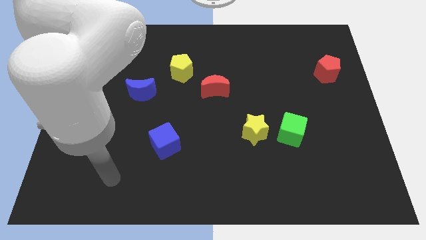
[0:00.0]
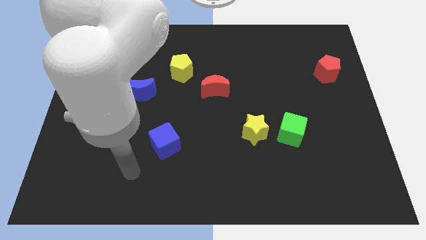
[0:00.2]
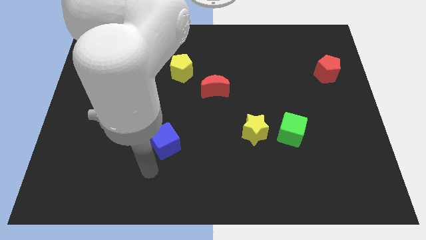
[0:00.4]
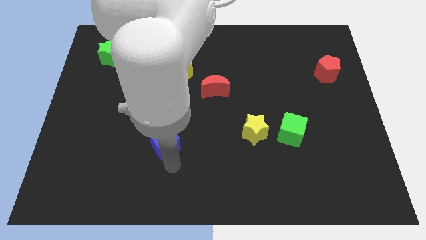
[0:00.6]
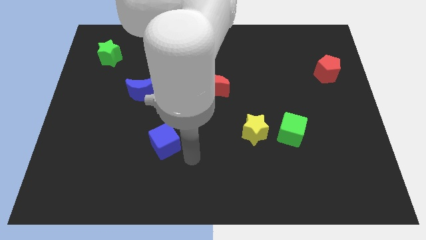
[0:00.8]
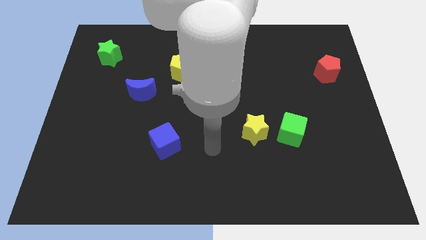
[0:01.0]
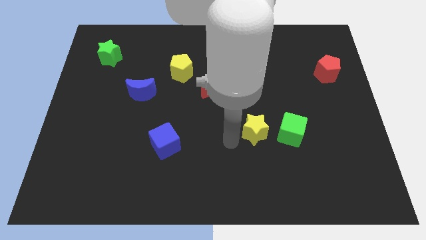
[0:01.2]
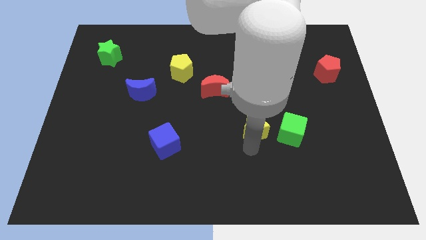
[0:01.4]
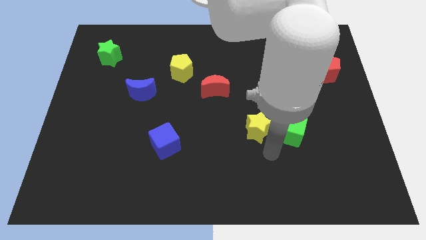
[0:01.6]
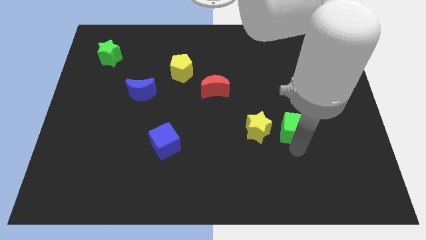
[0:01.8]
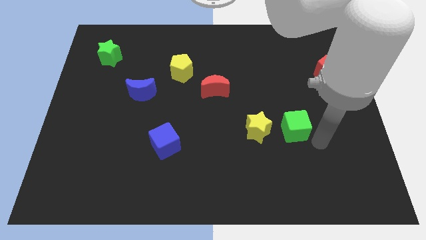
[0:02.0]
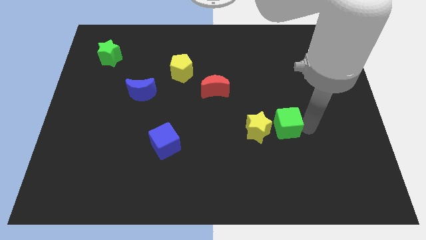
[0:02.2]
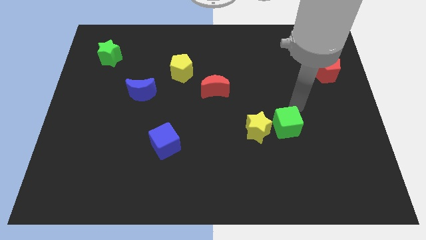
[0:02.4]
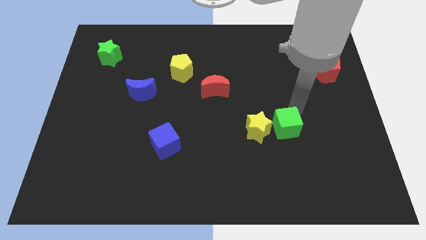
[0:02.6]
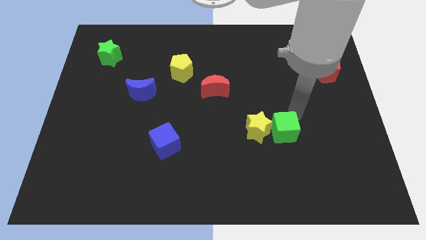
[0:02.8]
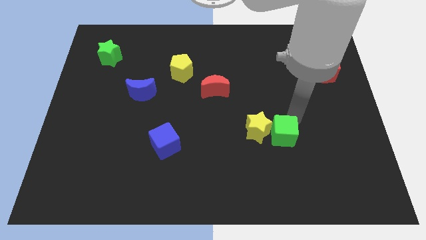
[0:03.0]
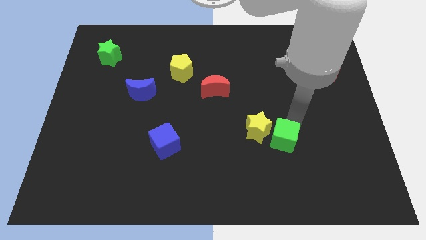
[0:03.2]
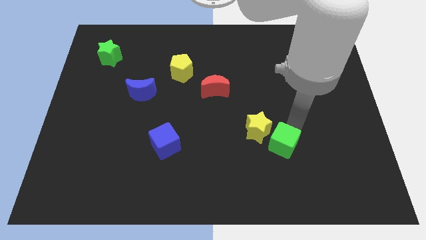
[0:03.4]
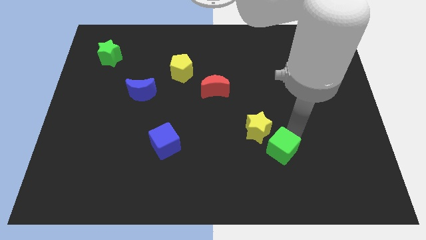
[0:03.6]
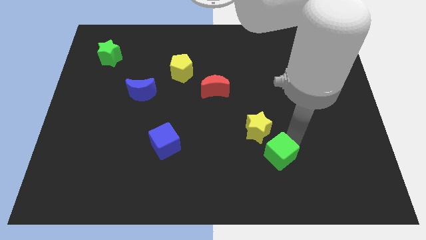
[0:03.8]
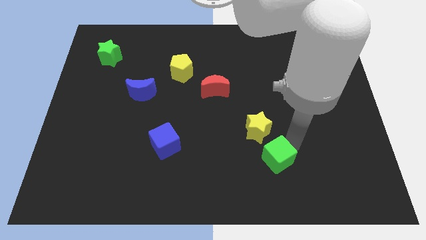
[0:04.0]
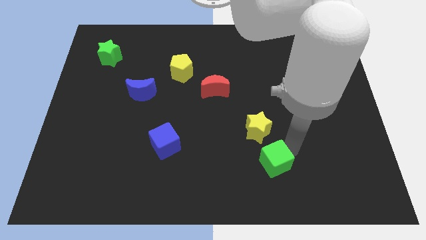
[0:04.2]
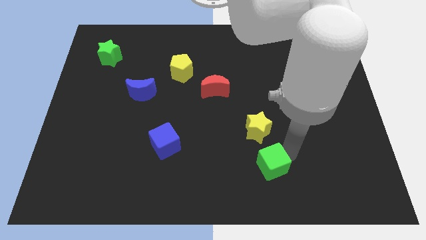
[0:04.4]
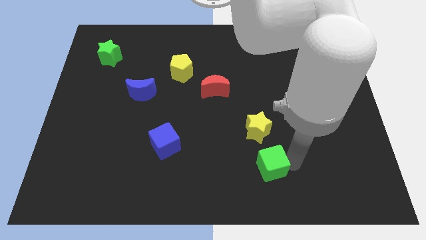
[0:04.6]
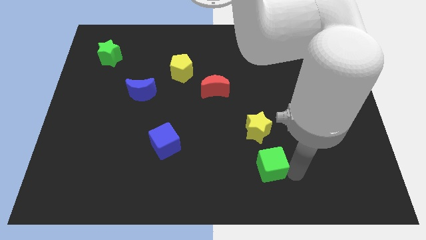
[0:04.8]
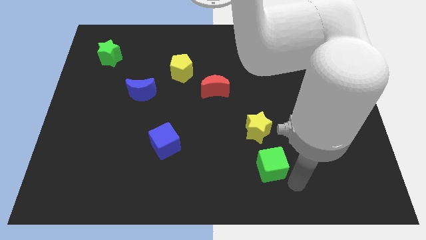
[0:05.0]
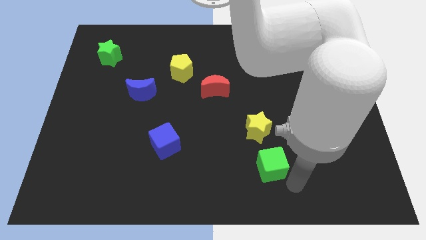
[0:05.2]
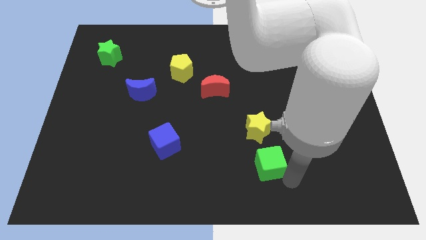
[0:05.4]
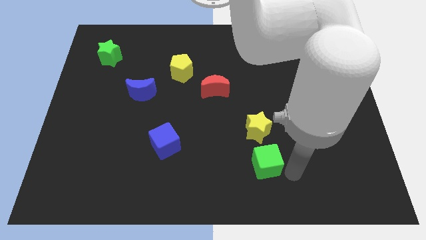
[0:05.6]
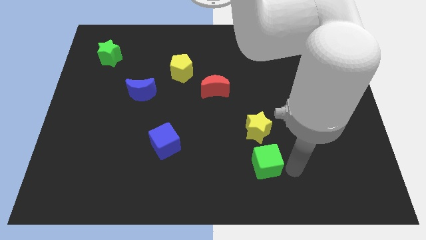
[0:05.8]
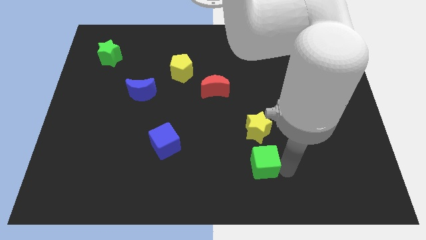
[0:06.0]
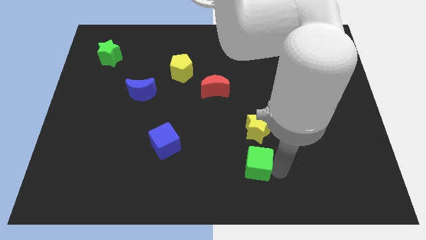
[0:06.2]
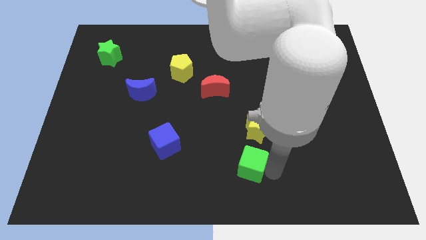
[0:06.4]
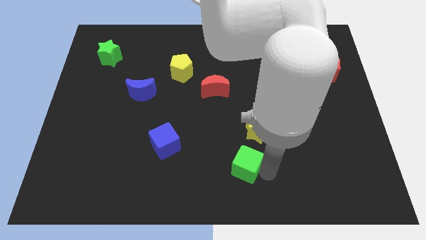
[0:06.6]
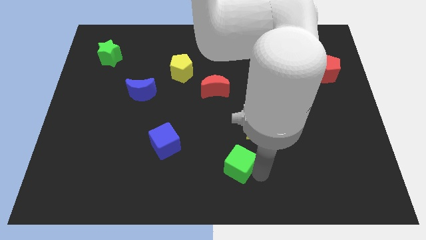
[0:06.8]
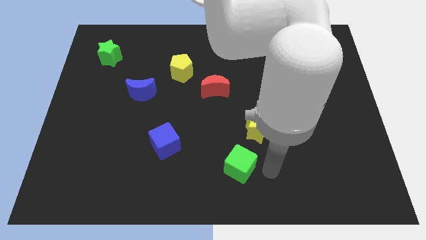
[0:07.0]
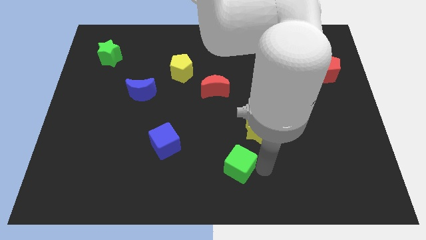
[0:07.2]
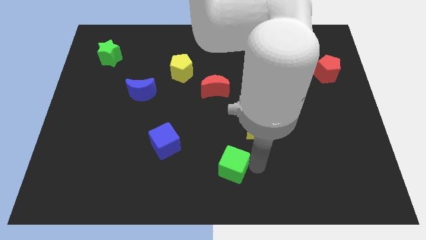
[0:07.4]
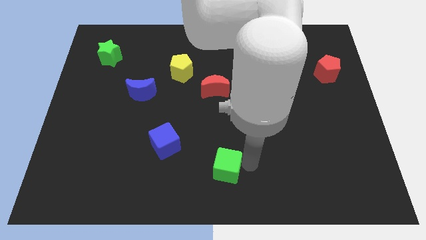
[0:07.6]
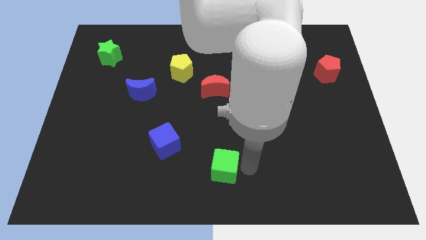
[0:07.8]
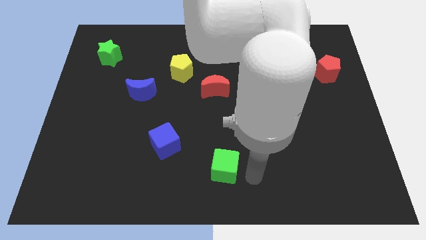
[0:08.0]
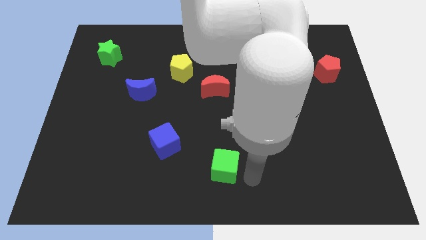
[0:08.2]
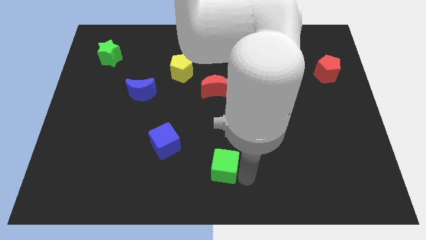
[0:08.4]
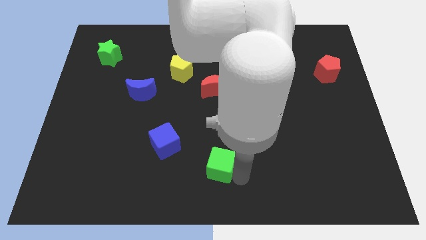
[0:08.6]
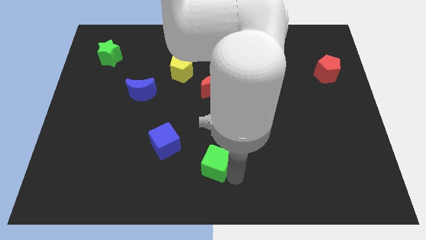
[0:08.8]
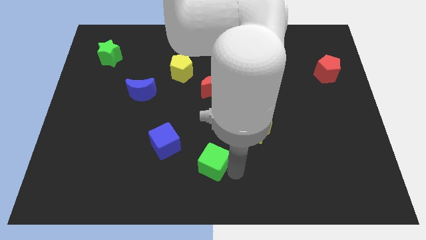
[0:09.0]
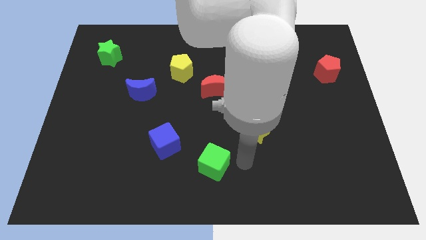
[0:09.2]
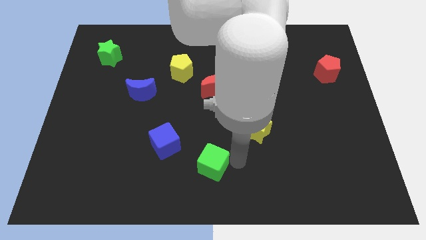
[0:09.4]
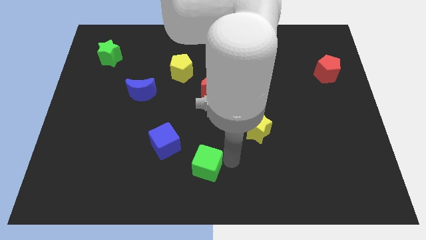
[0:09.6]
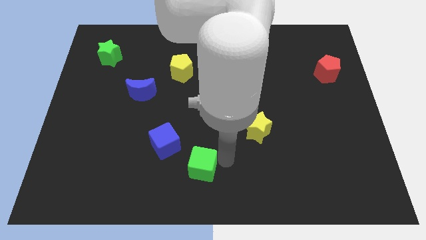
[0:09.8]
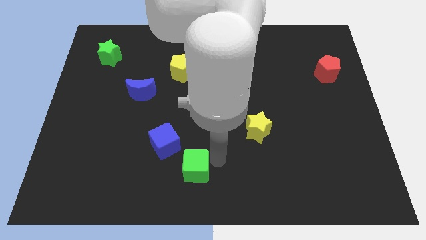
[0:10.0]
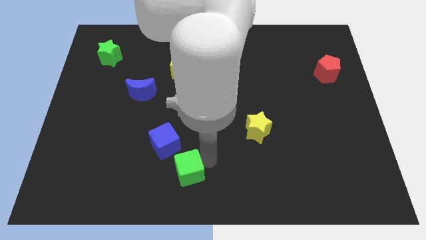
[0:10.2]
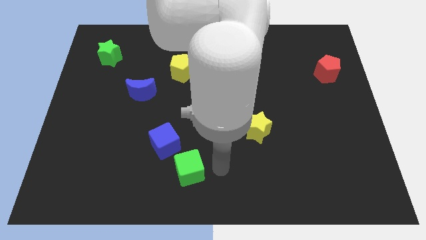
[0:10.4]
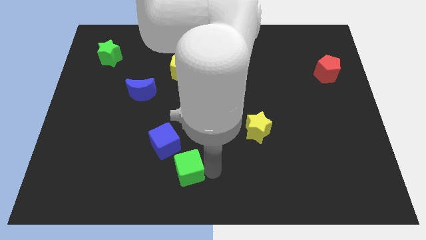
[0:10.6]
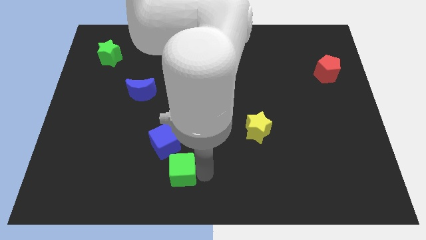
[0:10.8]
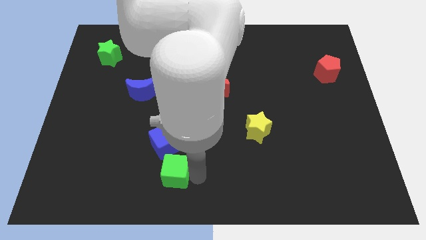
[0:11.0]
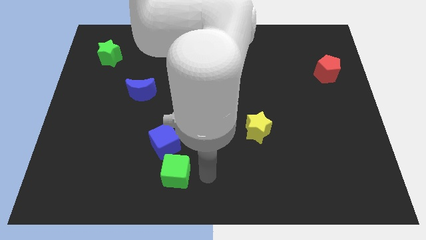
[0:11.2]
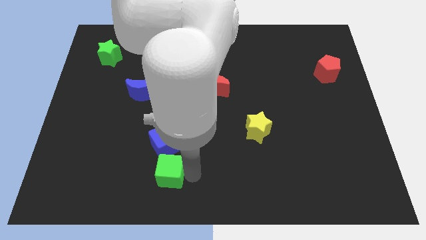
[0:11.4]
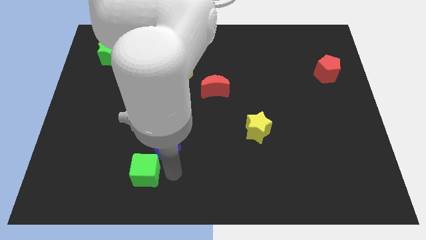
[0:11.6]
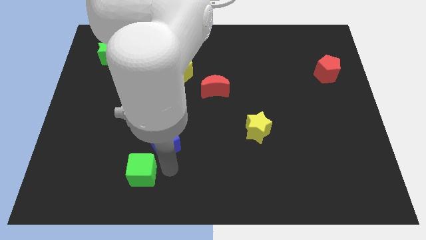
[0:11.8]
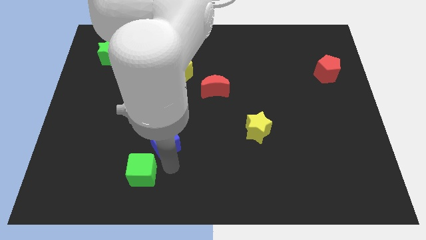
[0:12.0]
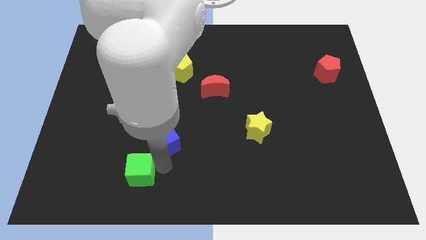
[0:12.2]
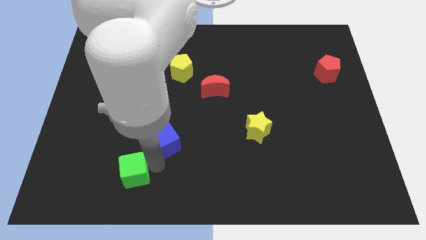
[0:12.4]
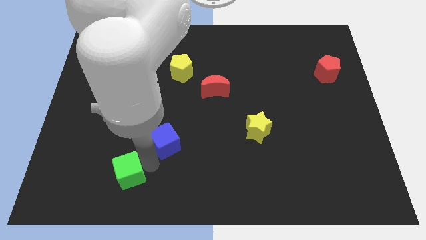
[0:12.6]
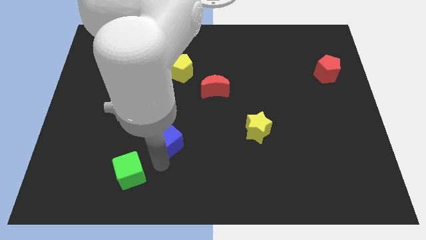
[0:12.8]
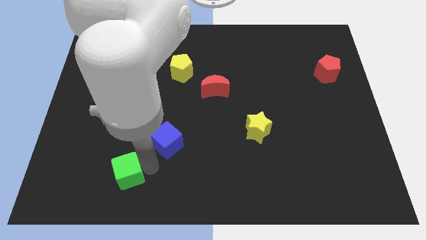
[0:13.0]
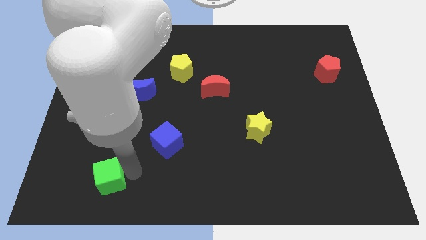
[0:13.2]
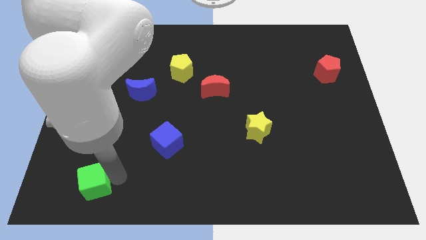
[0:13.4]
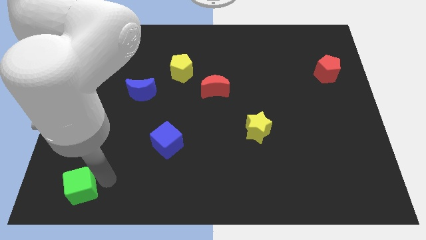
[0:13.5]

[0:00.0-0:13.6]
put the green cube to the bottom left of the board
